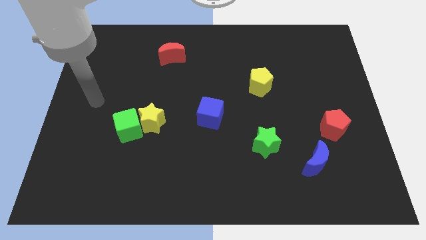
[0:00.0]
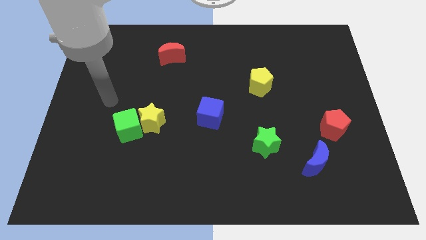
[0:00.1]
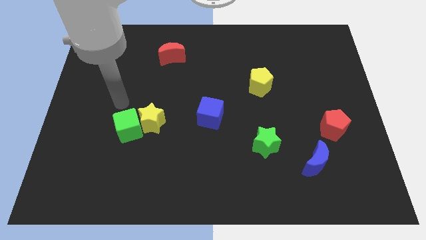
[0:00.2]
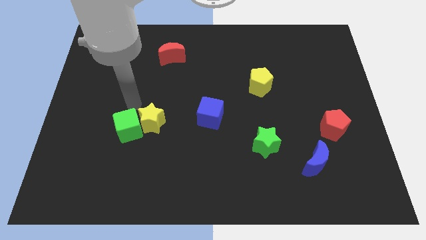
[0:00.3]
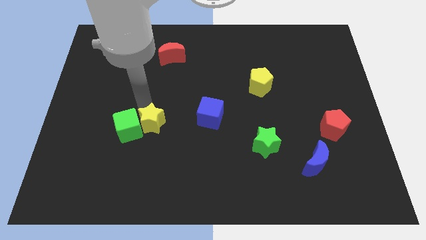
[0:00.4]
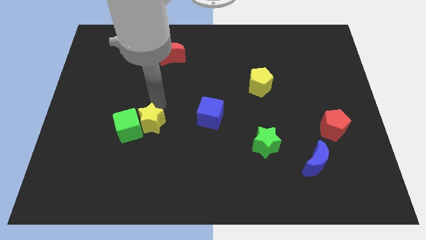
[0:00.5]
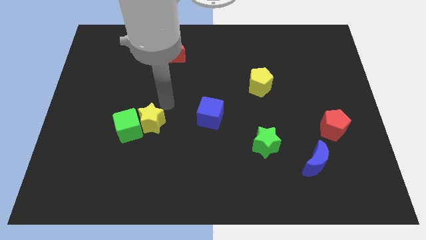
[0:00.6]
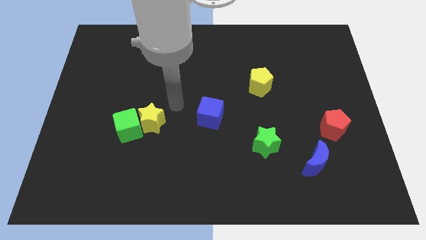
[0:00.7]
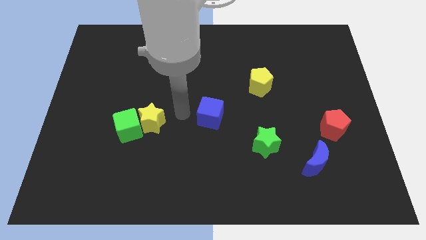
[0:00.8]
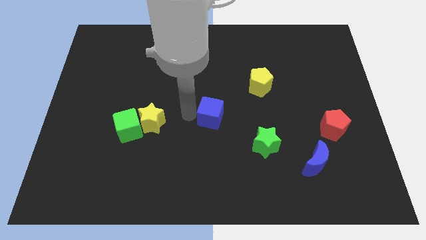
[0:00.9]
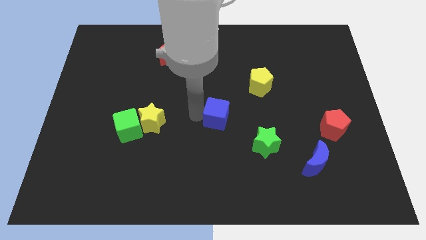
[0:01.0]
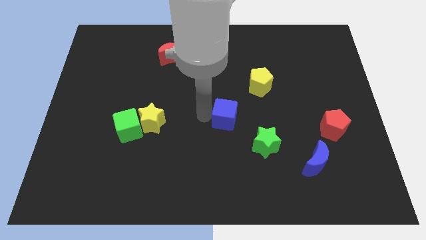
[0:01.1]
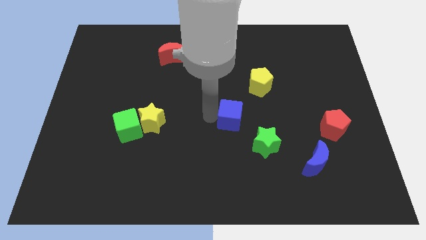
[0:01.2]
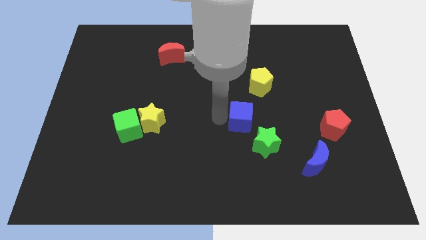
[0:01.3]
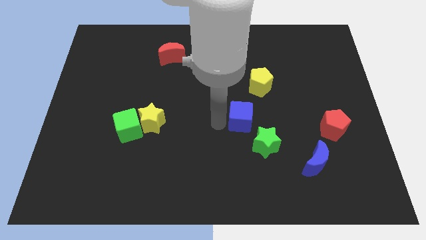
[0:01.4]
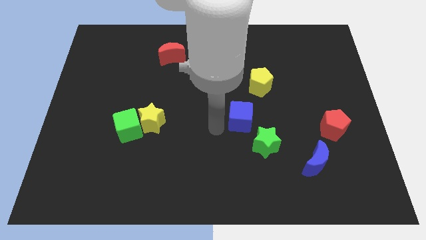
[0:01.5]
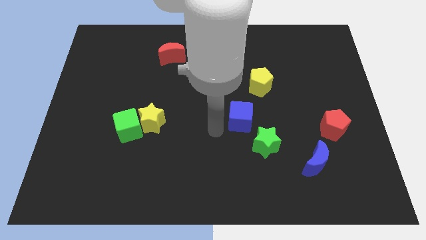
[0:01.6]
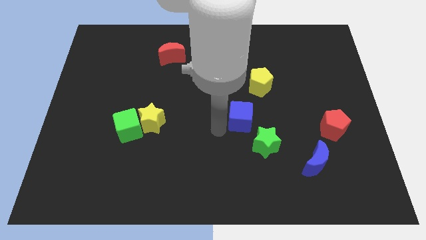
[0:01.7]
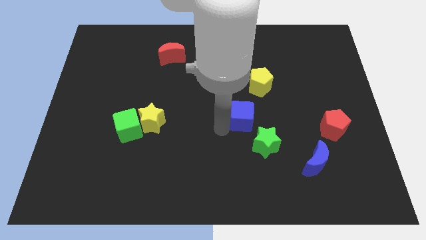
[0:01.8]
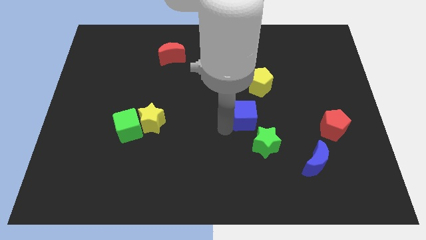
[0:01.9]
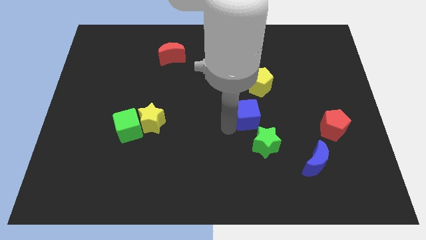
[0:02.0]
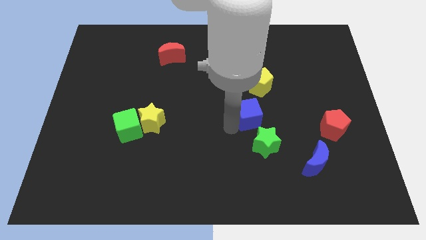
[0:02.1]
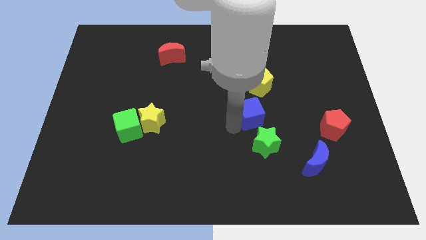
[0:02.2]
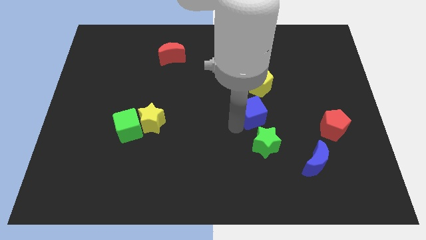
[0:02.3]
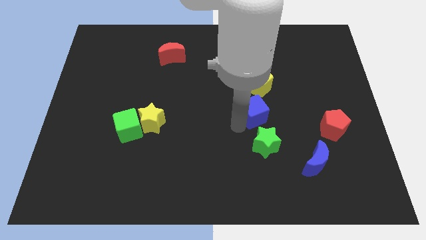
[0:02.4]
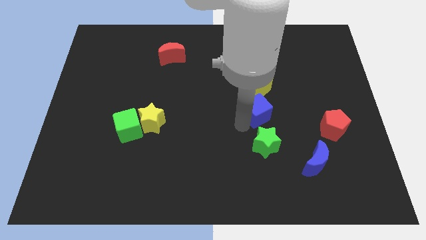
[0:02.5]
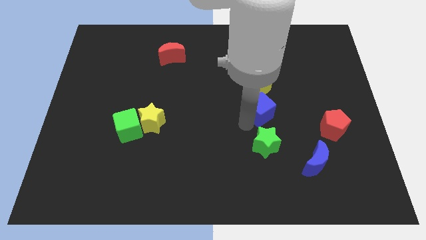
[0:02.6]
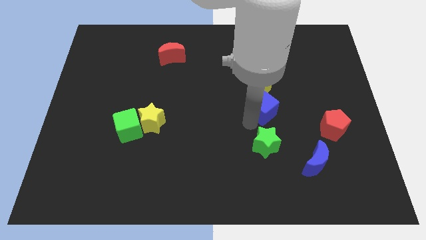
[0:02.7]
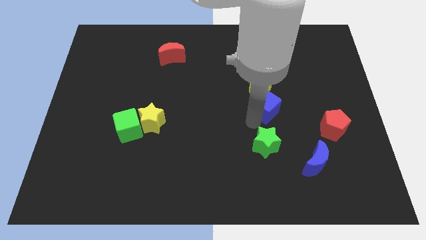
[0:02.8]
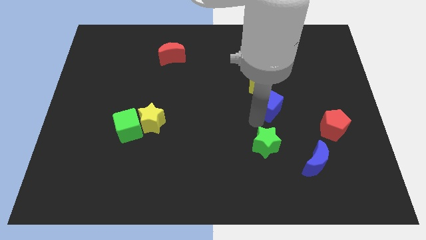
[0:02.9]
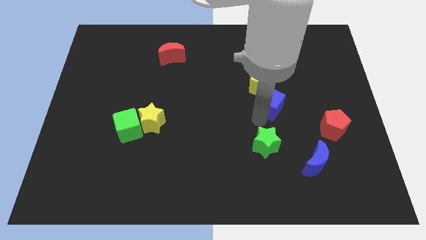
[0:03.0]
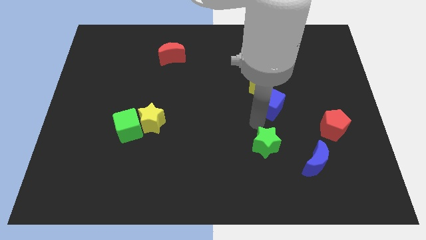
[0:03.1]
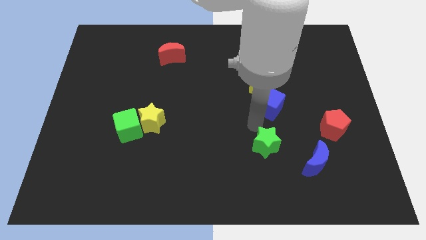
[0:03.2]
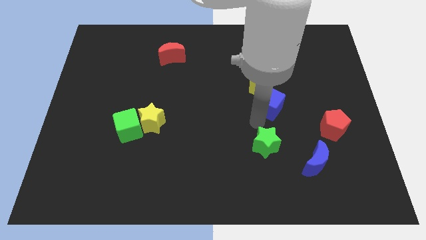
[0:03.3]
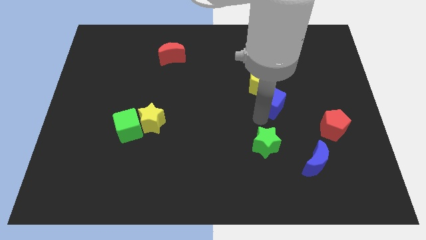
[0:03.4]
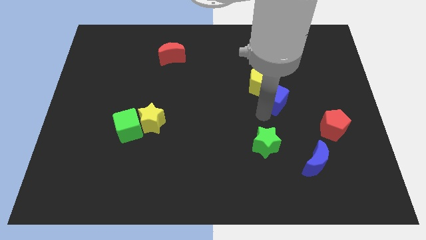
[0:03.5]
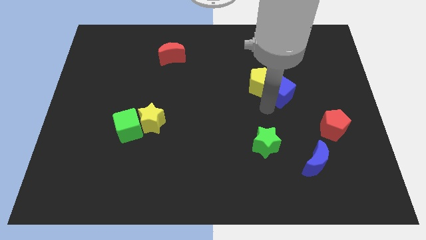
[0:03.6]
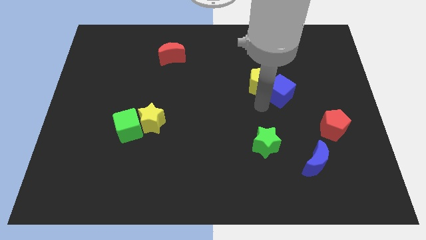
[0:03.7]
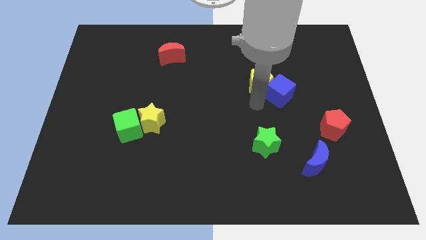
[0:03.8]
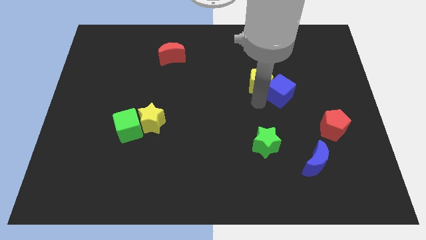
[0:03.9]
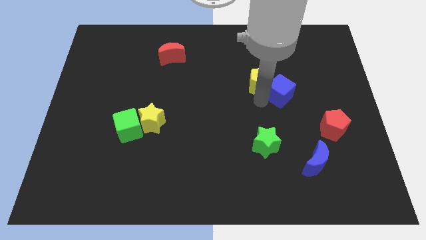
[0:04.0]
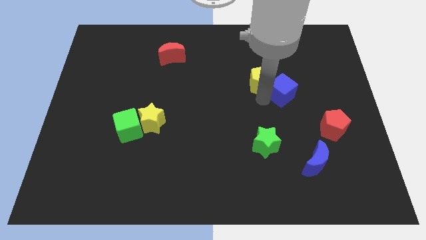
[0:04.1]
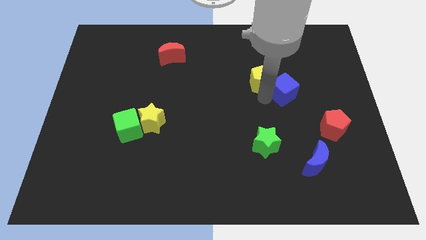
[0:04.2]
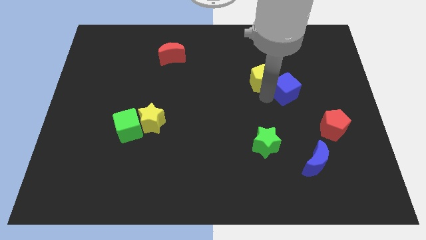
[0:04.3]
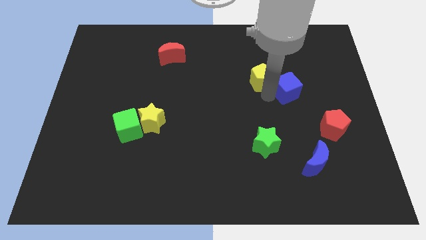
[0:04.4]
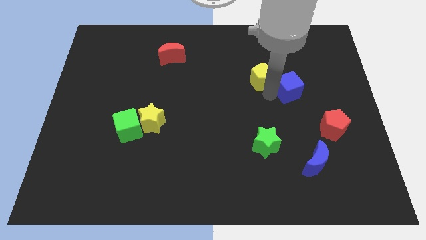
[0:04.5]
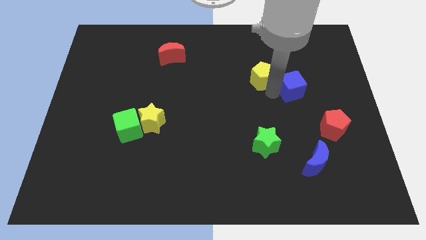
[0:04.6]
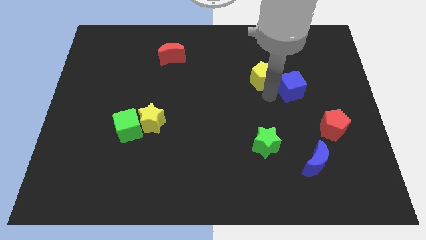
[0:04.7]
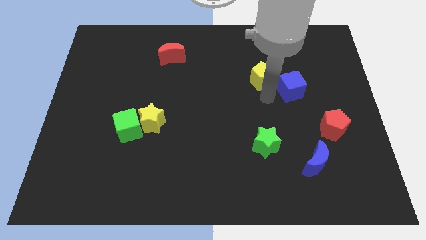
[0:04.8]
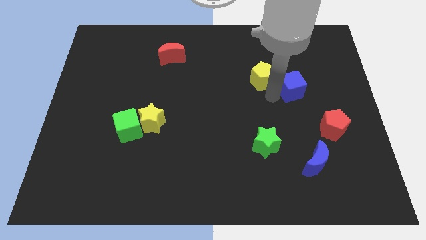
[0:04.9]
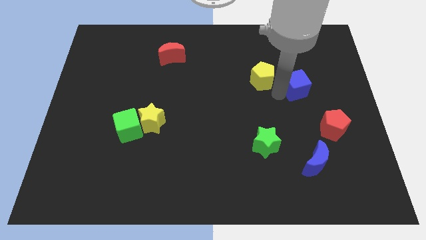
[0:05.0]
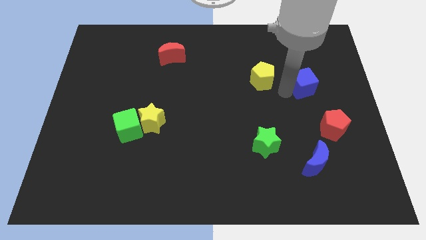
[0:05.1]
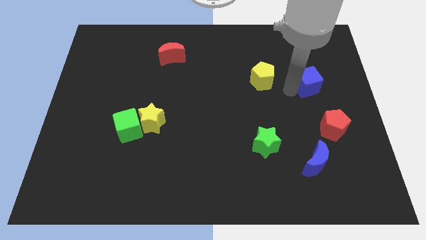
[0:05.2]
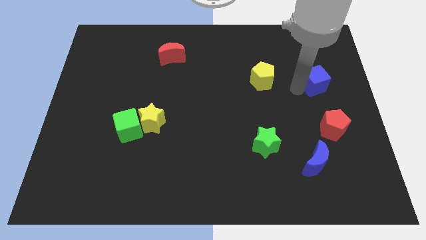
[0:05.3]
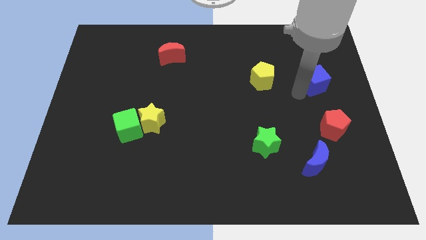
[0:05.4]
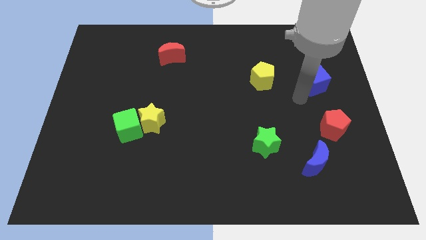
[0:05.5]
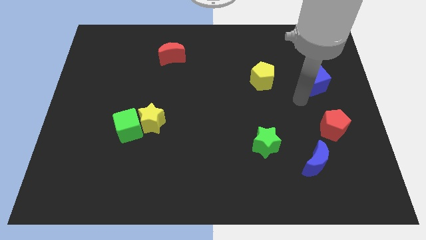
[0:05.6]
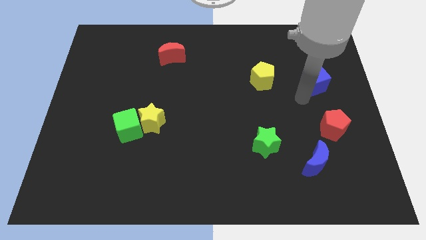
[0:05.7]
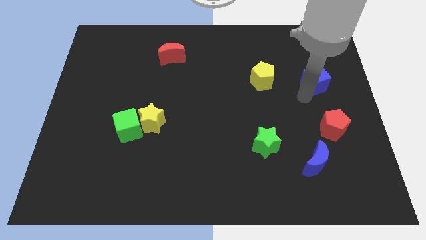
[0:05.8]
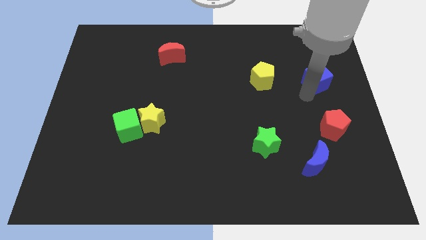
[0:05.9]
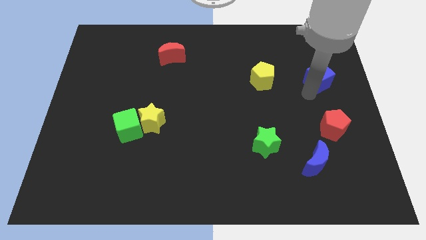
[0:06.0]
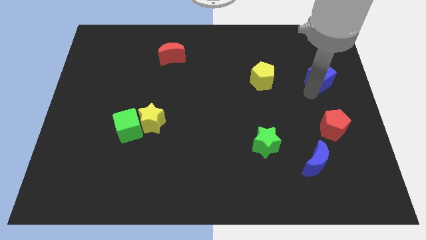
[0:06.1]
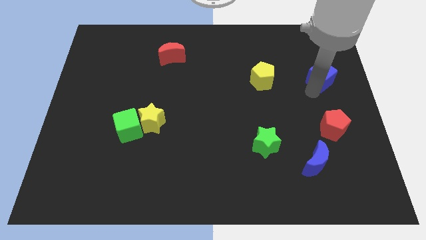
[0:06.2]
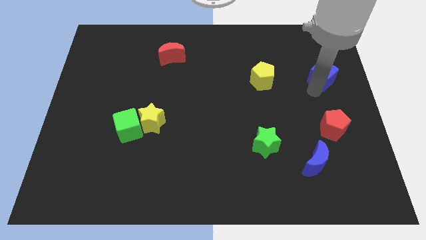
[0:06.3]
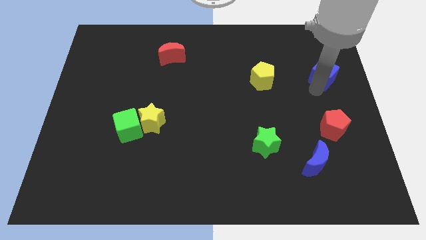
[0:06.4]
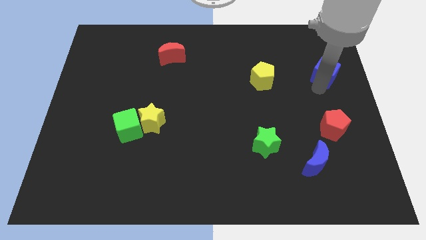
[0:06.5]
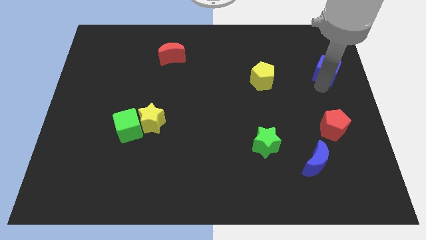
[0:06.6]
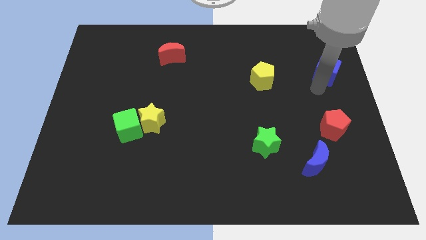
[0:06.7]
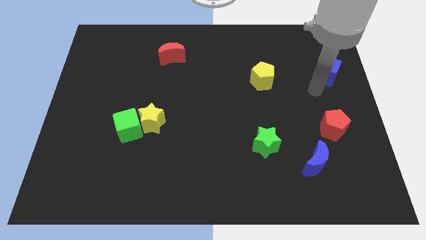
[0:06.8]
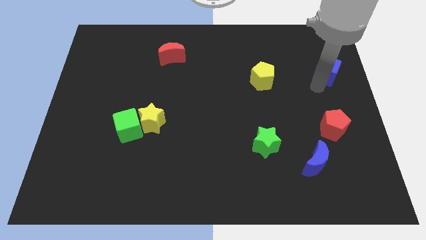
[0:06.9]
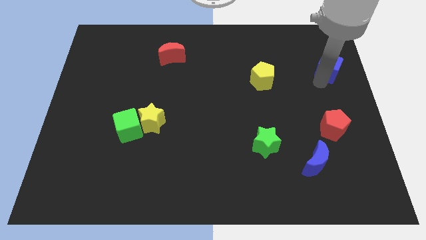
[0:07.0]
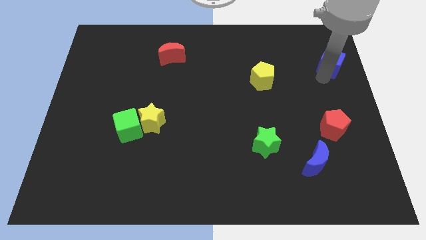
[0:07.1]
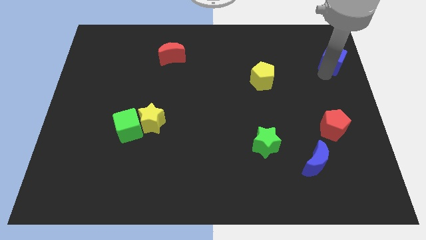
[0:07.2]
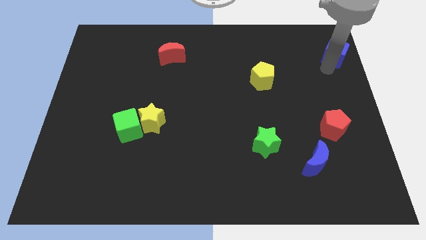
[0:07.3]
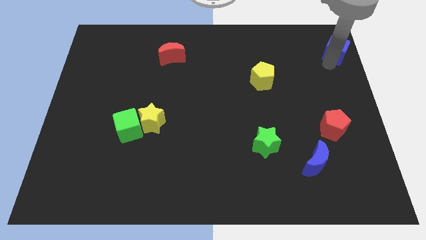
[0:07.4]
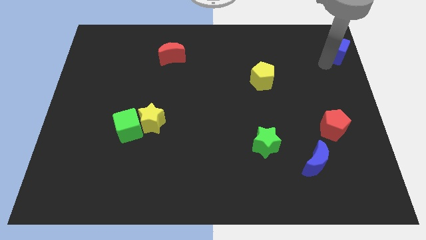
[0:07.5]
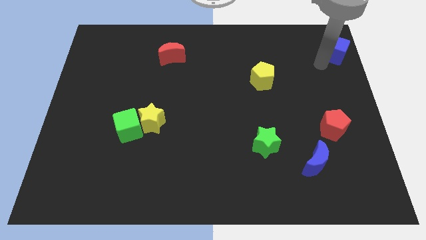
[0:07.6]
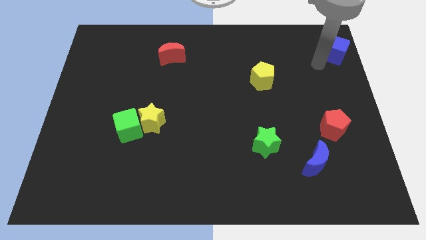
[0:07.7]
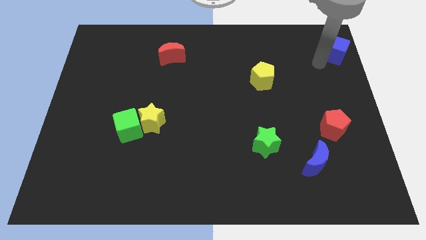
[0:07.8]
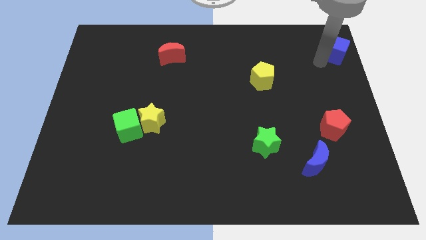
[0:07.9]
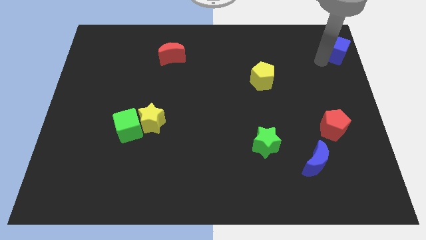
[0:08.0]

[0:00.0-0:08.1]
slide the blue cube to the top right of the board
